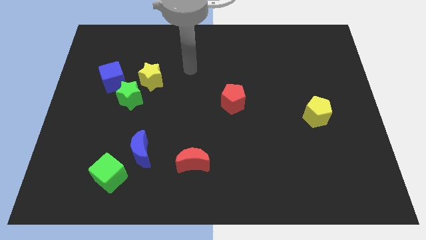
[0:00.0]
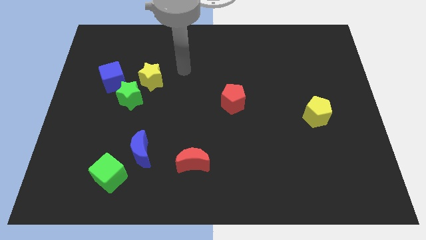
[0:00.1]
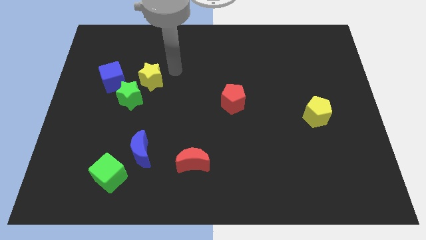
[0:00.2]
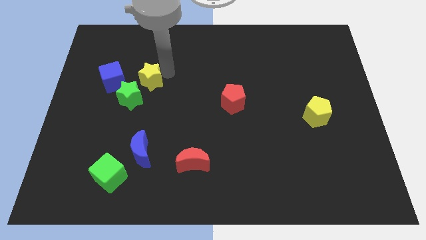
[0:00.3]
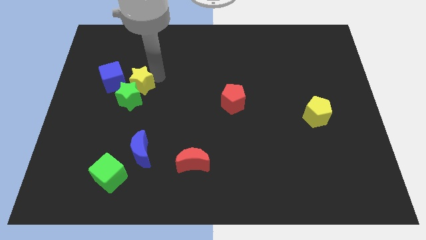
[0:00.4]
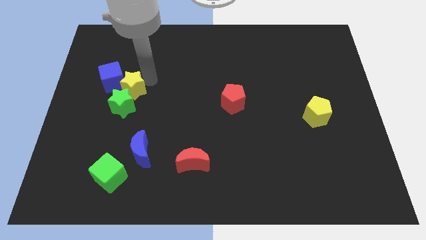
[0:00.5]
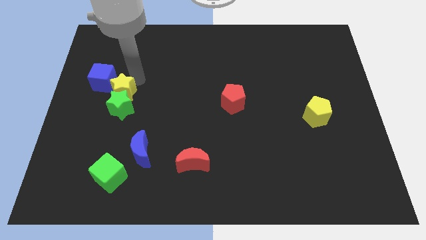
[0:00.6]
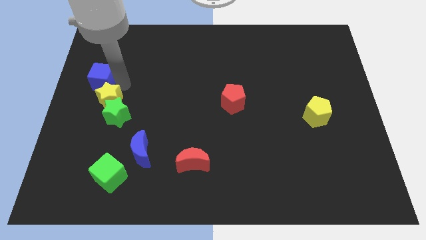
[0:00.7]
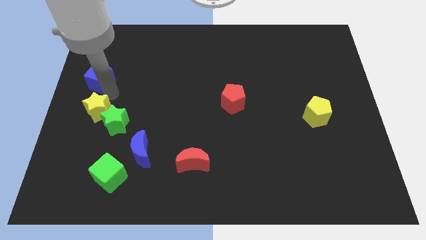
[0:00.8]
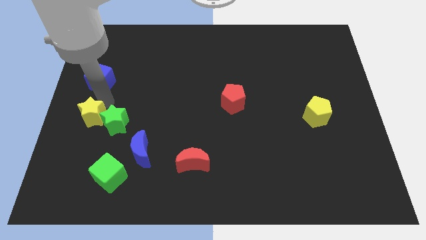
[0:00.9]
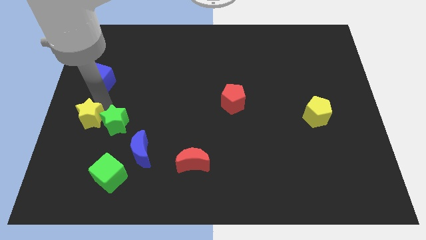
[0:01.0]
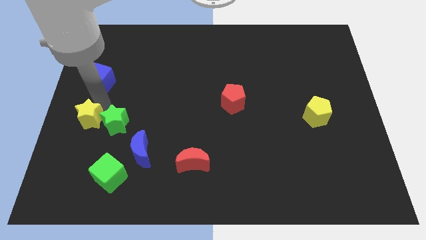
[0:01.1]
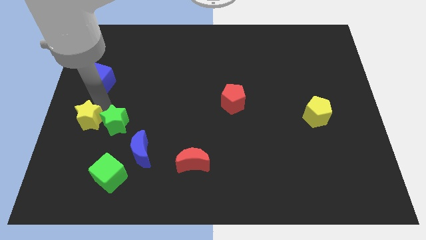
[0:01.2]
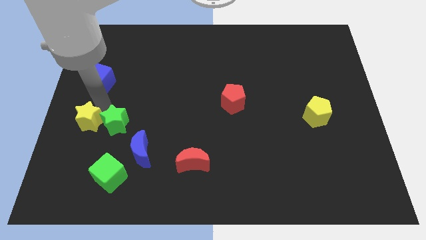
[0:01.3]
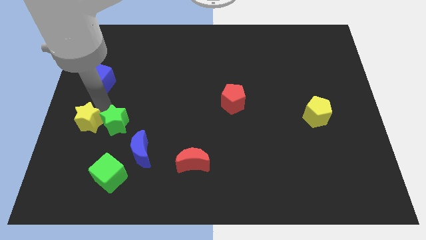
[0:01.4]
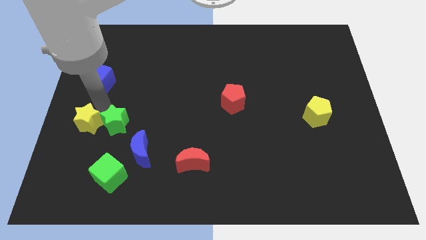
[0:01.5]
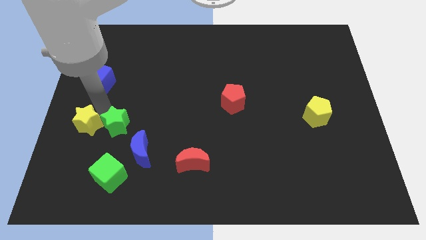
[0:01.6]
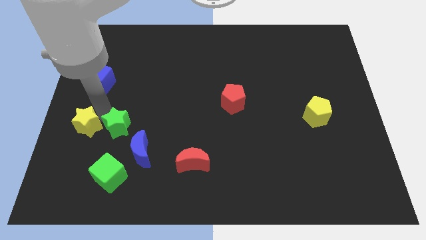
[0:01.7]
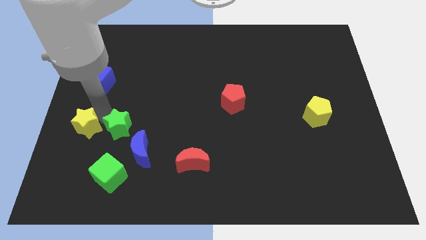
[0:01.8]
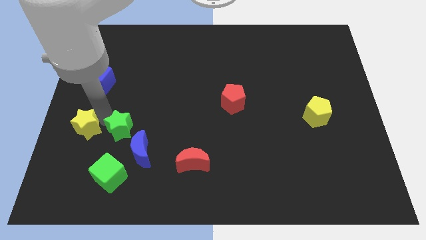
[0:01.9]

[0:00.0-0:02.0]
move the green star away from the yellow star and blue cube

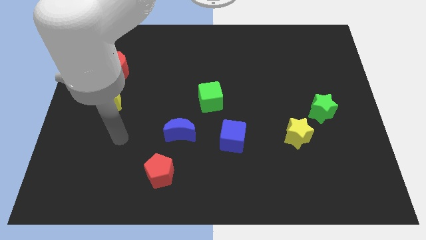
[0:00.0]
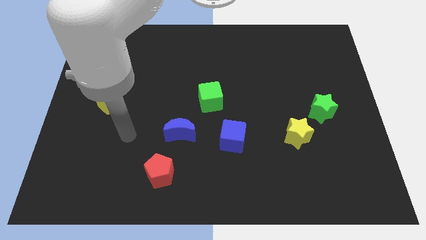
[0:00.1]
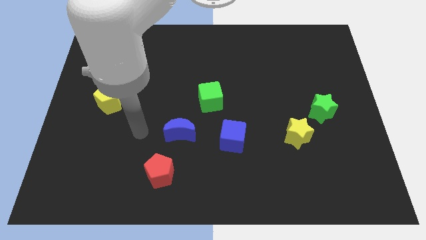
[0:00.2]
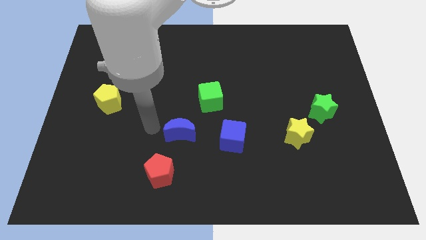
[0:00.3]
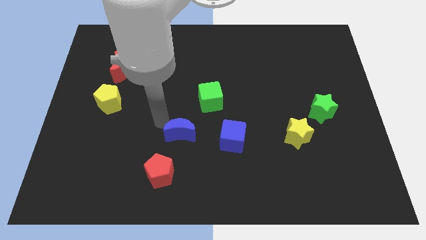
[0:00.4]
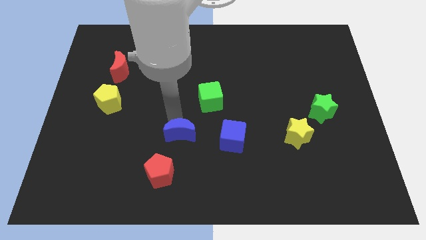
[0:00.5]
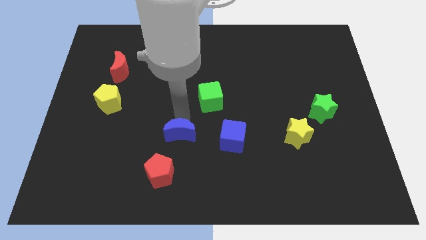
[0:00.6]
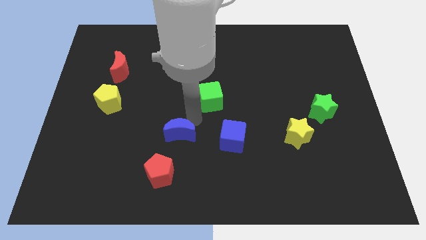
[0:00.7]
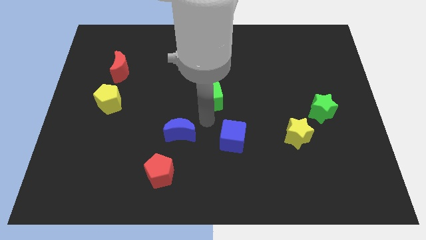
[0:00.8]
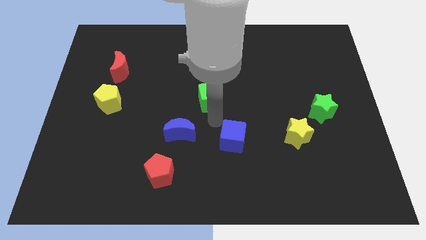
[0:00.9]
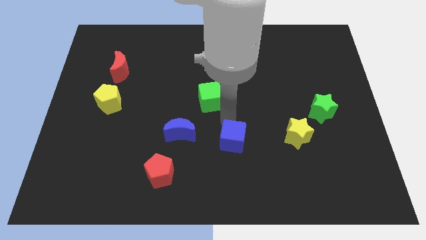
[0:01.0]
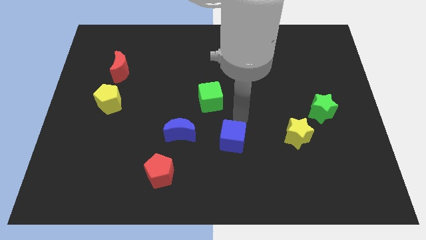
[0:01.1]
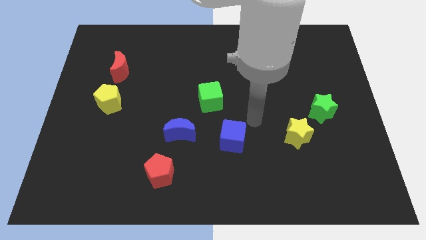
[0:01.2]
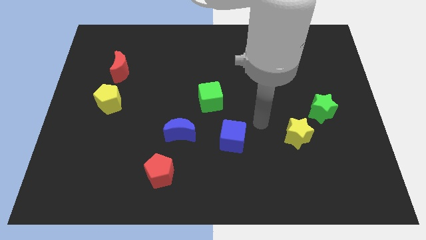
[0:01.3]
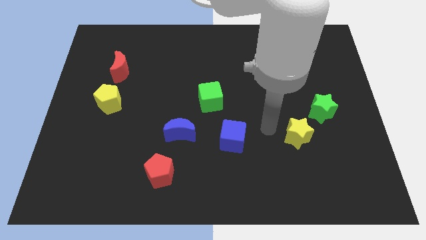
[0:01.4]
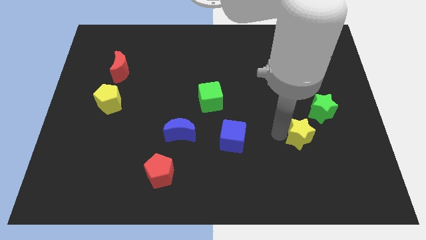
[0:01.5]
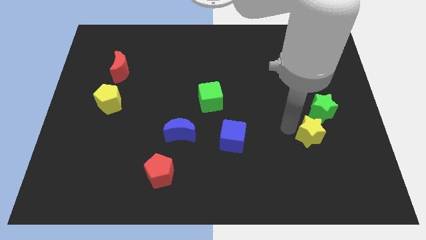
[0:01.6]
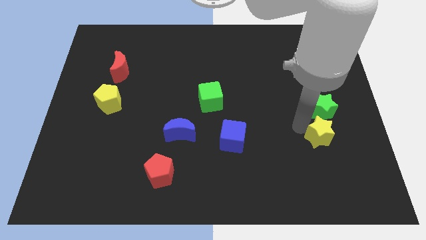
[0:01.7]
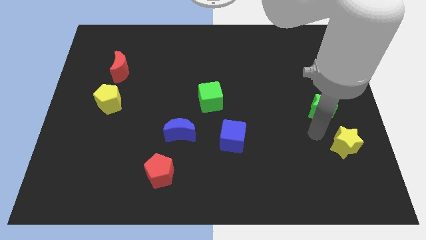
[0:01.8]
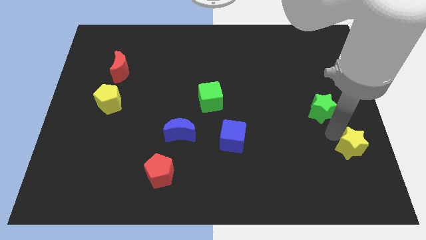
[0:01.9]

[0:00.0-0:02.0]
separate the green star from the yellow star

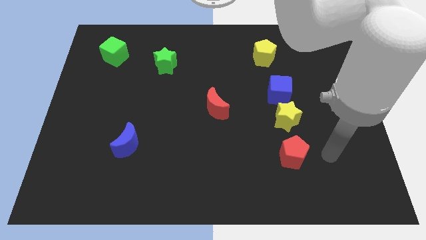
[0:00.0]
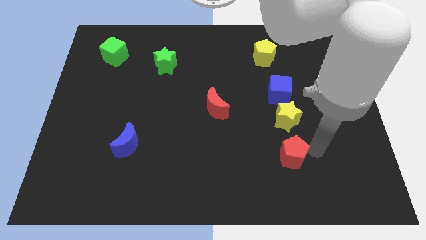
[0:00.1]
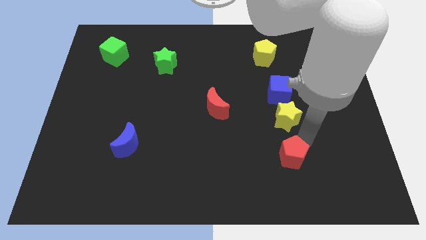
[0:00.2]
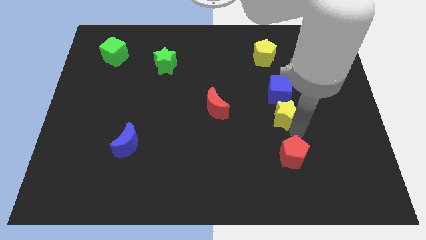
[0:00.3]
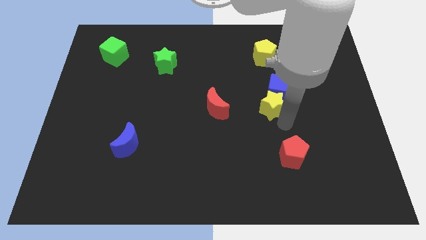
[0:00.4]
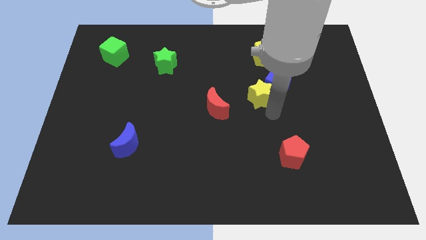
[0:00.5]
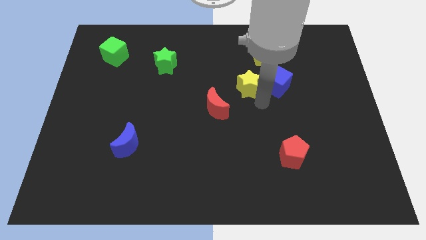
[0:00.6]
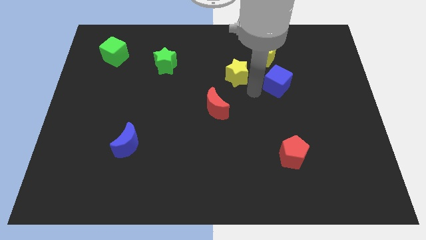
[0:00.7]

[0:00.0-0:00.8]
pull the blue cube apart from the yellow star

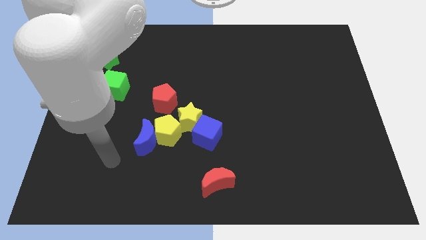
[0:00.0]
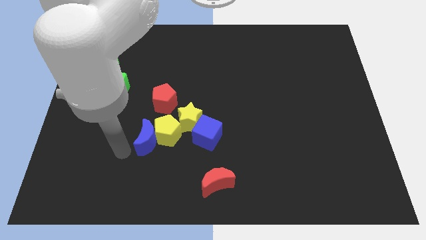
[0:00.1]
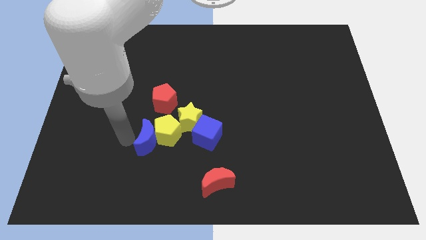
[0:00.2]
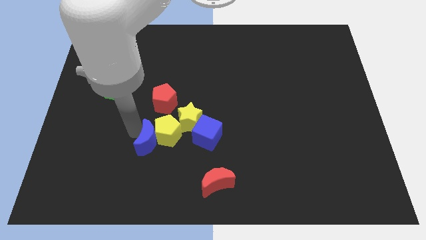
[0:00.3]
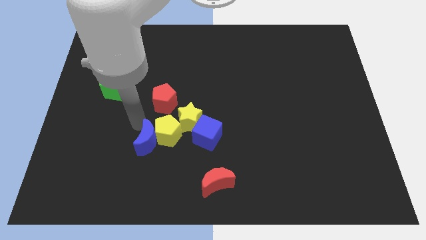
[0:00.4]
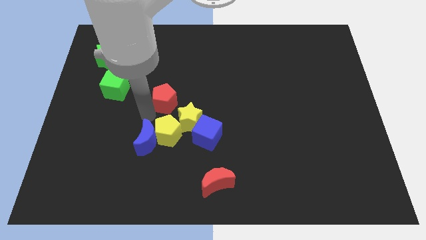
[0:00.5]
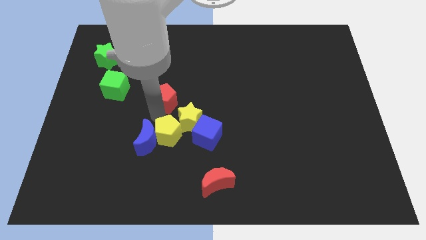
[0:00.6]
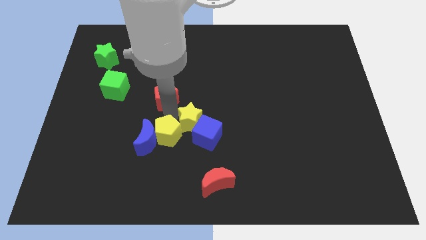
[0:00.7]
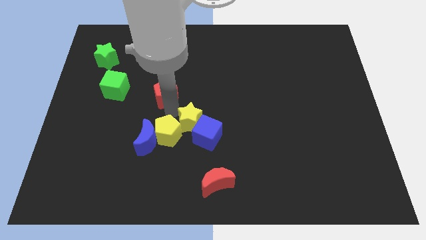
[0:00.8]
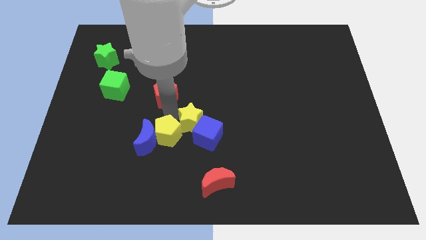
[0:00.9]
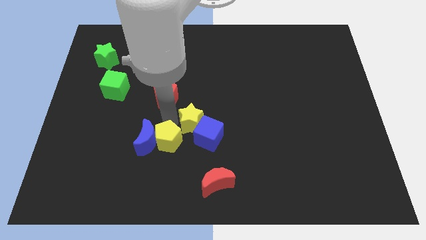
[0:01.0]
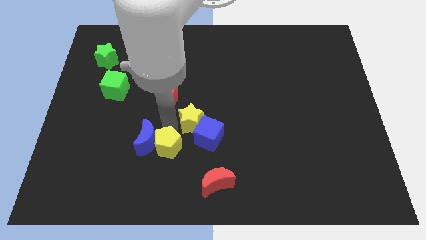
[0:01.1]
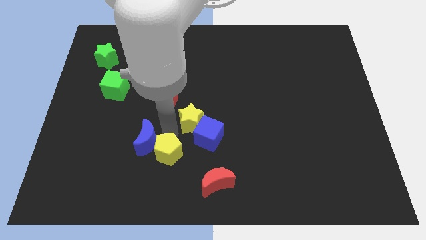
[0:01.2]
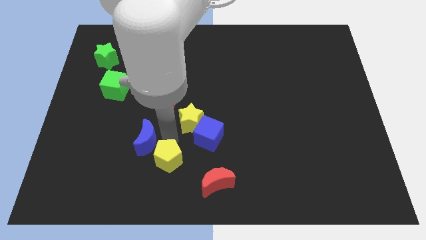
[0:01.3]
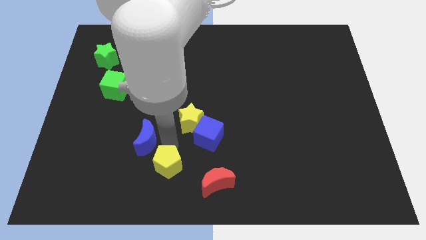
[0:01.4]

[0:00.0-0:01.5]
separate the yellow pentagon from the group of blocks

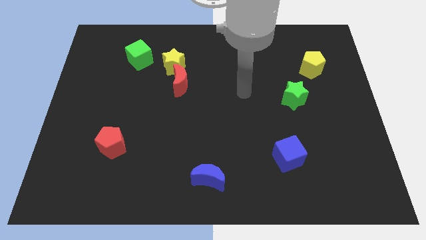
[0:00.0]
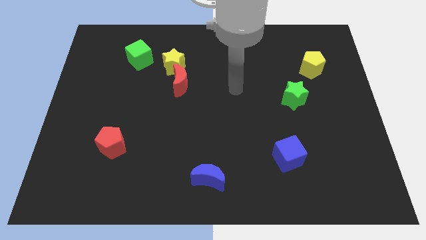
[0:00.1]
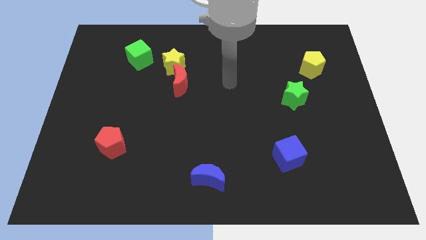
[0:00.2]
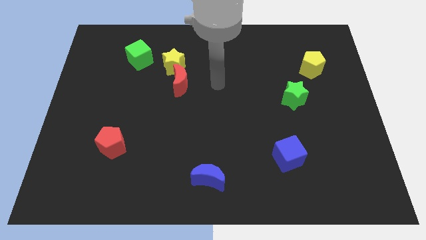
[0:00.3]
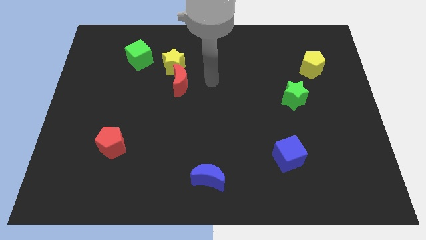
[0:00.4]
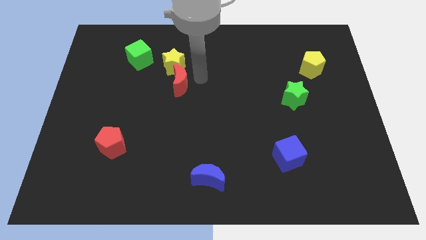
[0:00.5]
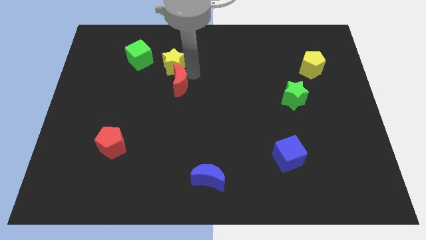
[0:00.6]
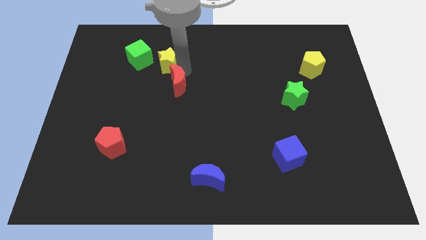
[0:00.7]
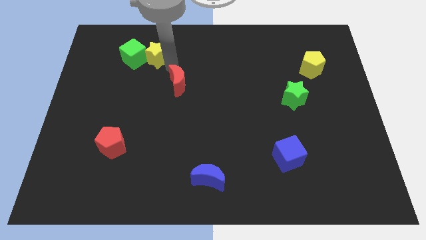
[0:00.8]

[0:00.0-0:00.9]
pull the red moon apart from the yellow star

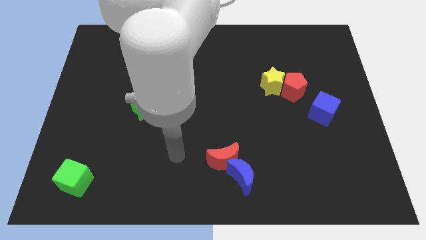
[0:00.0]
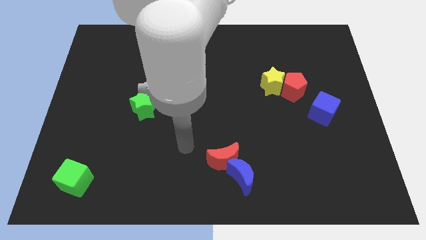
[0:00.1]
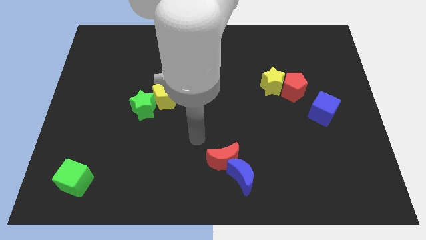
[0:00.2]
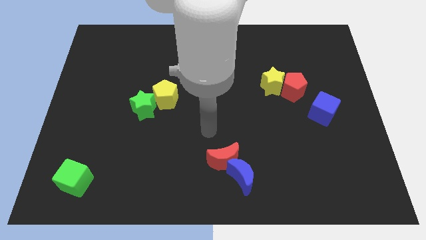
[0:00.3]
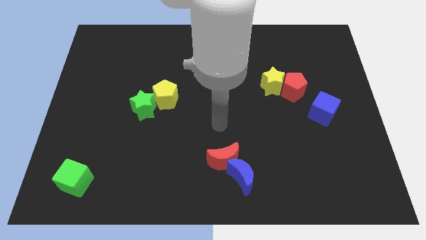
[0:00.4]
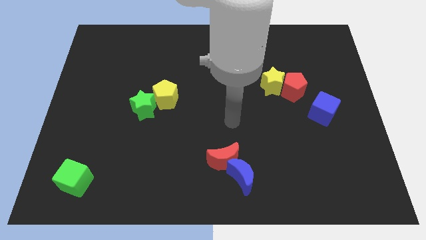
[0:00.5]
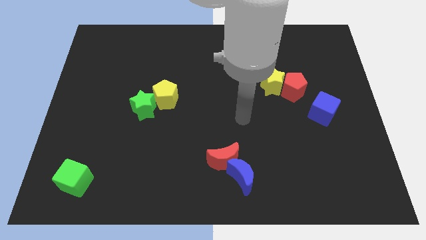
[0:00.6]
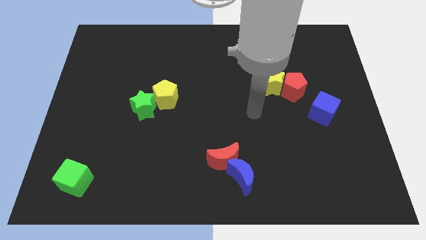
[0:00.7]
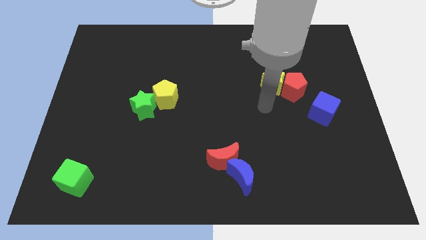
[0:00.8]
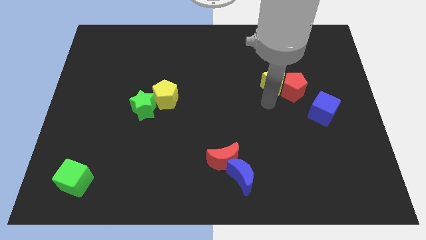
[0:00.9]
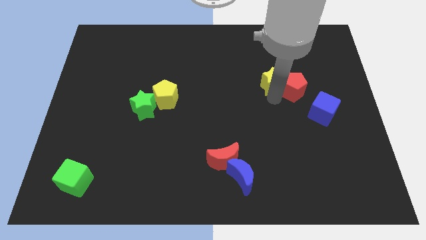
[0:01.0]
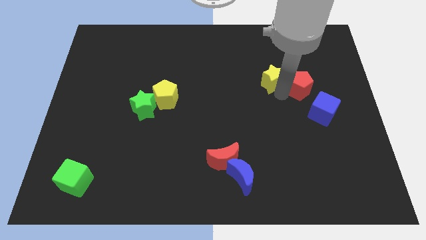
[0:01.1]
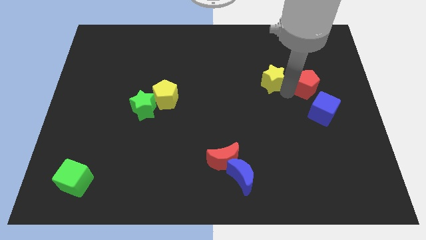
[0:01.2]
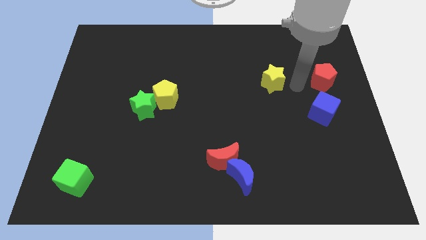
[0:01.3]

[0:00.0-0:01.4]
separate the yellow star from the red pentagon

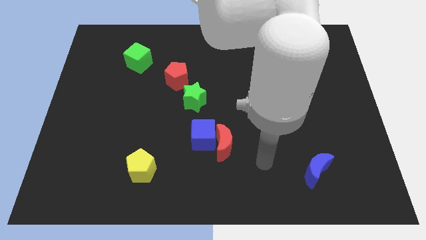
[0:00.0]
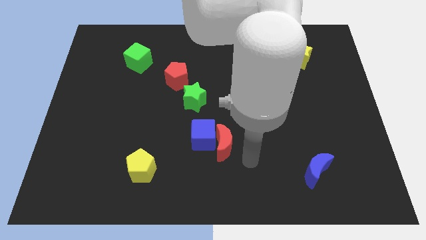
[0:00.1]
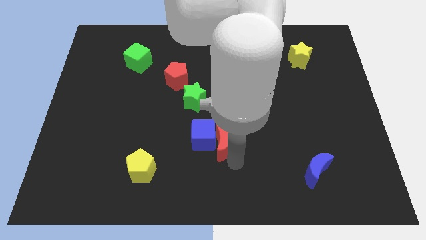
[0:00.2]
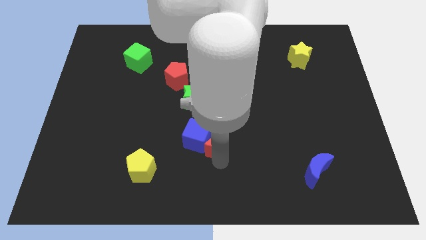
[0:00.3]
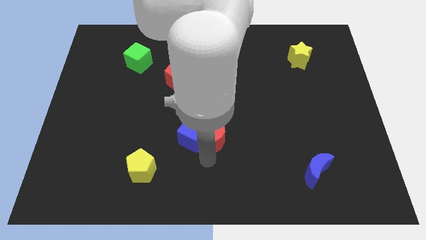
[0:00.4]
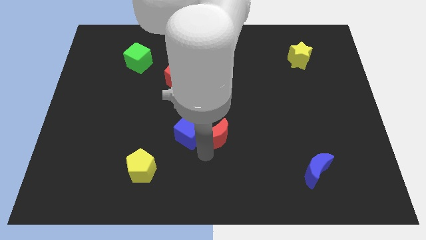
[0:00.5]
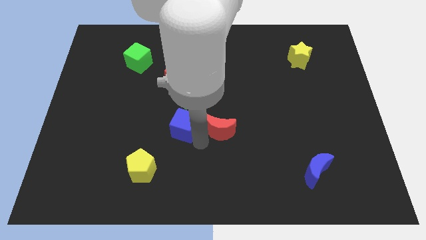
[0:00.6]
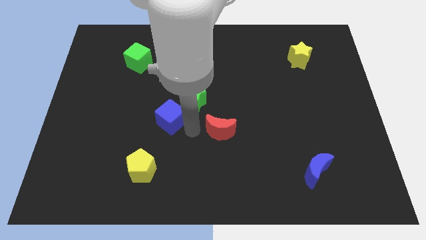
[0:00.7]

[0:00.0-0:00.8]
separate the red moon from the blue cube
